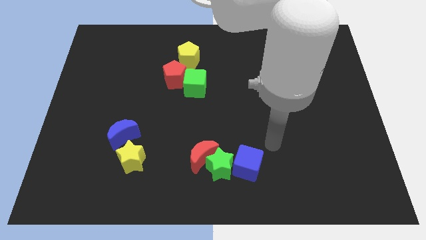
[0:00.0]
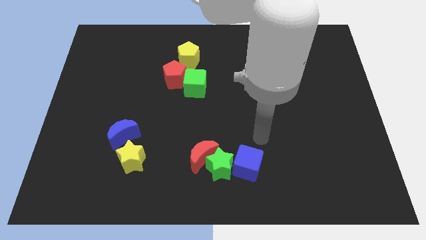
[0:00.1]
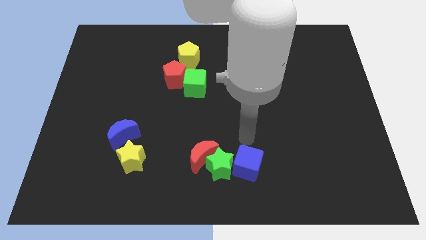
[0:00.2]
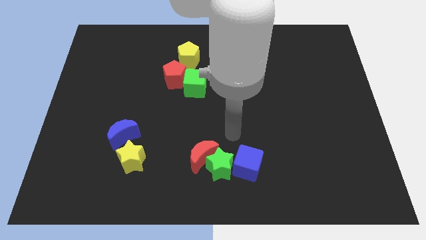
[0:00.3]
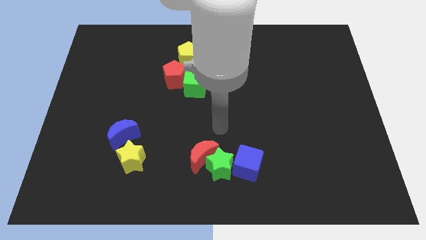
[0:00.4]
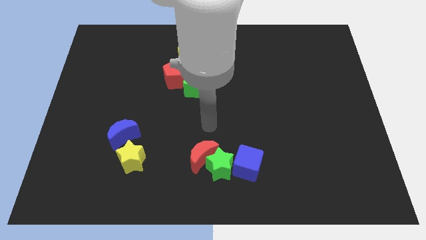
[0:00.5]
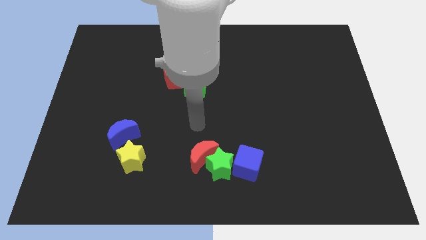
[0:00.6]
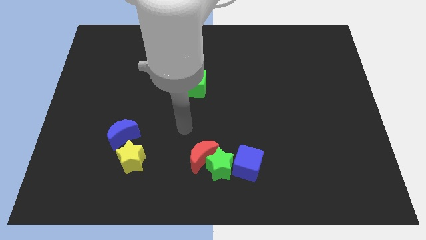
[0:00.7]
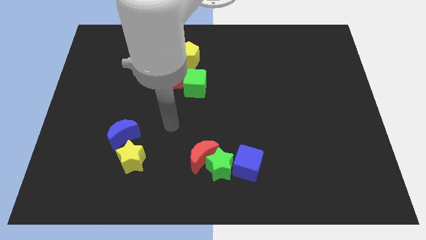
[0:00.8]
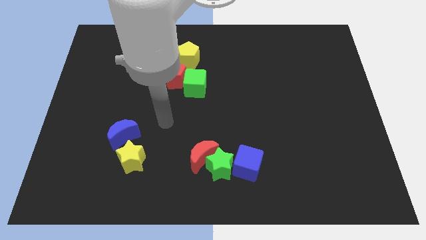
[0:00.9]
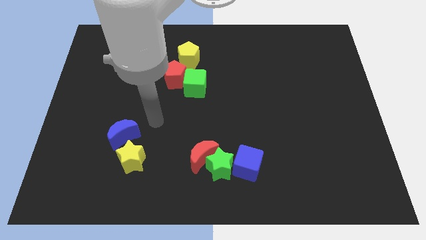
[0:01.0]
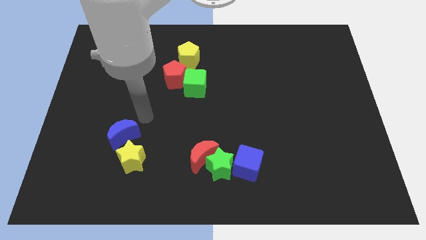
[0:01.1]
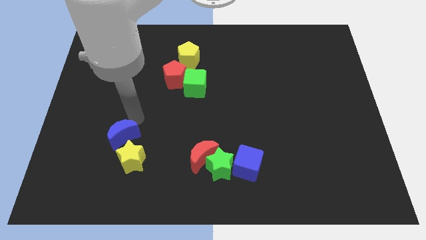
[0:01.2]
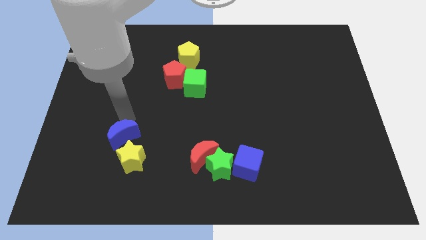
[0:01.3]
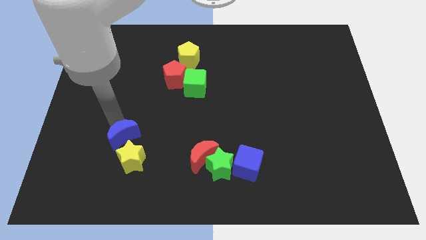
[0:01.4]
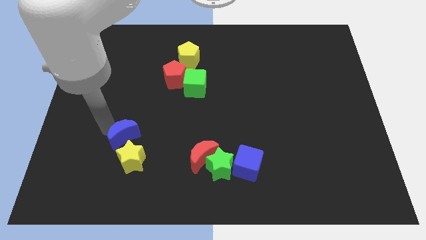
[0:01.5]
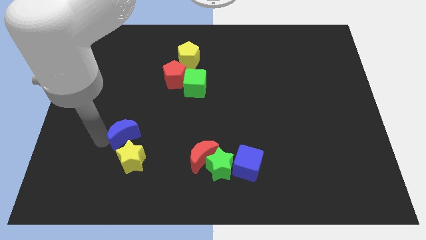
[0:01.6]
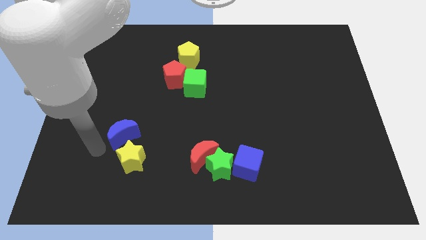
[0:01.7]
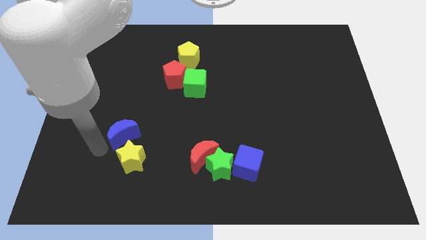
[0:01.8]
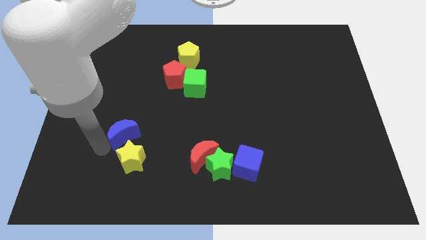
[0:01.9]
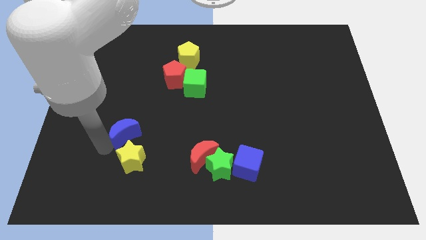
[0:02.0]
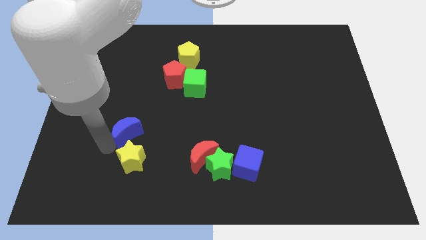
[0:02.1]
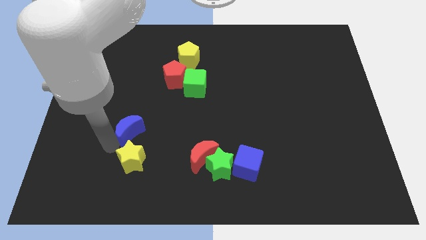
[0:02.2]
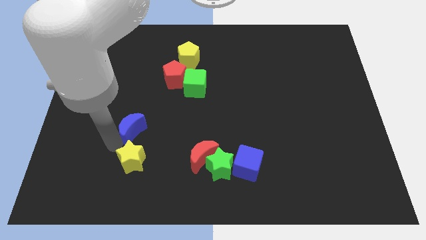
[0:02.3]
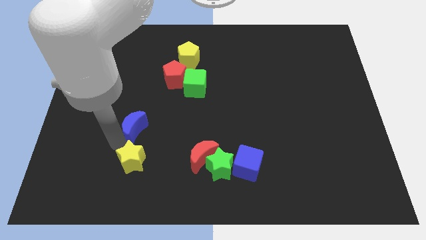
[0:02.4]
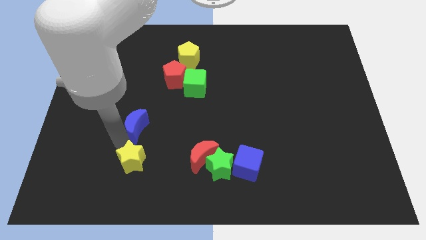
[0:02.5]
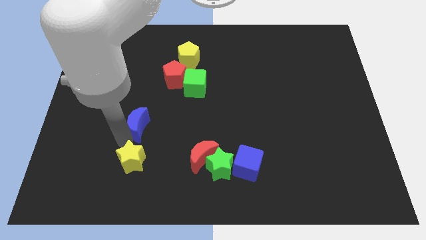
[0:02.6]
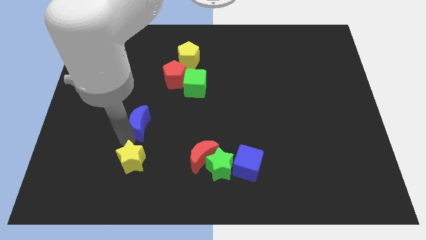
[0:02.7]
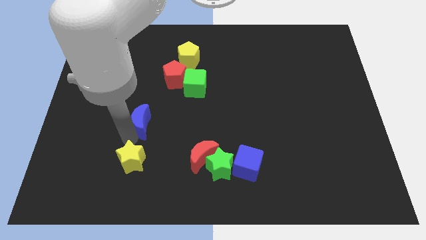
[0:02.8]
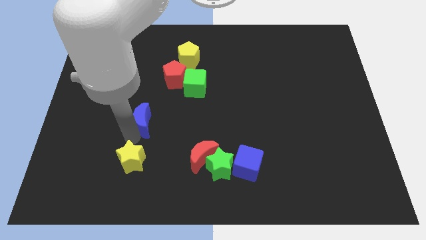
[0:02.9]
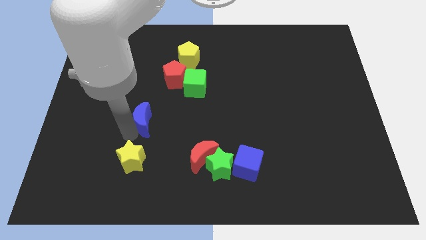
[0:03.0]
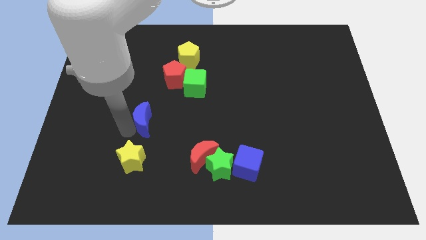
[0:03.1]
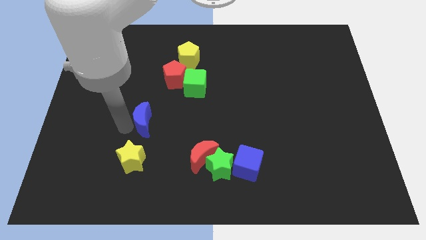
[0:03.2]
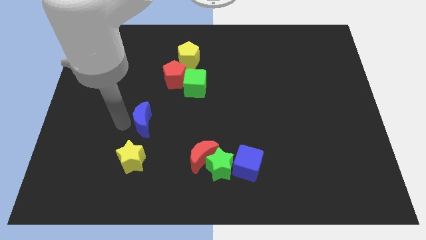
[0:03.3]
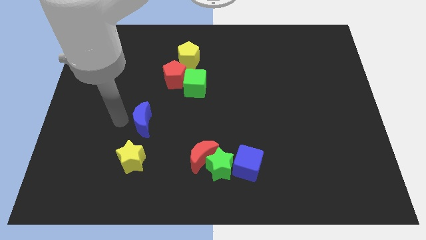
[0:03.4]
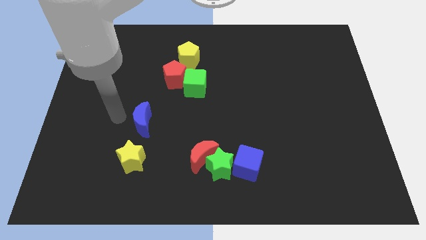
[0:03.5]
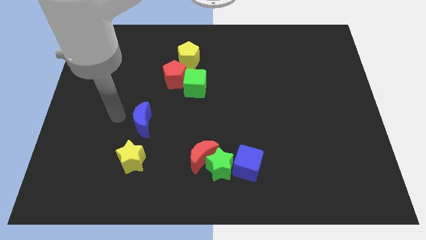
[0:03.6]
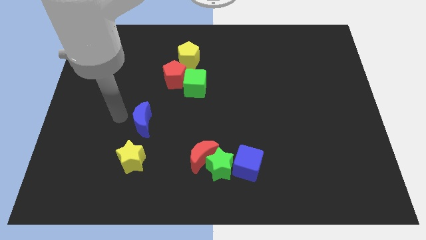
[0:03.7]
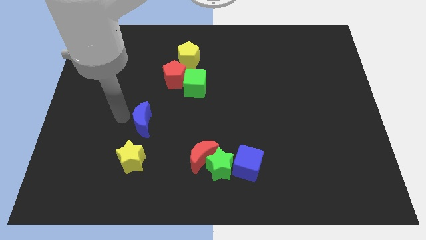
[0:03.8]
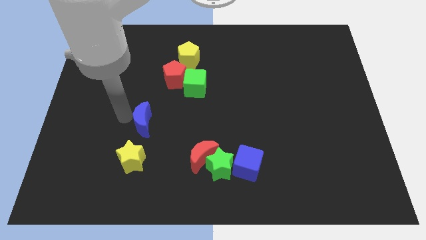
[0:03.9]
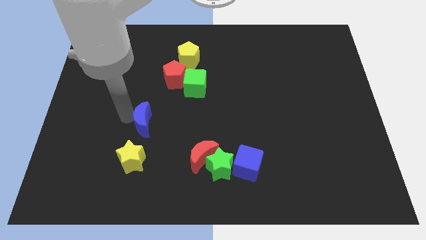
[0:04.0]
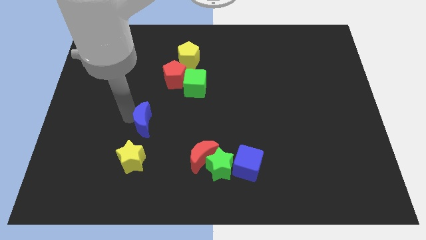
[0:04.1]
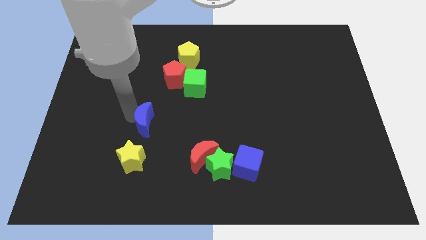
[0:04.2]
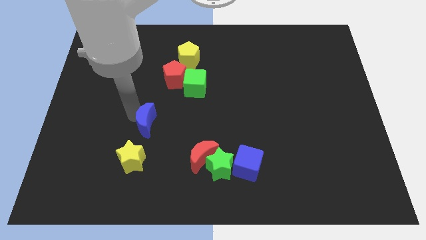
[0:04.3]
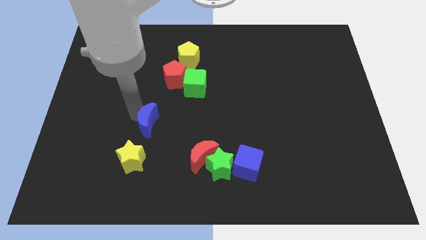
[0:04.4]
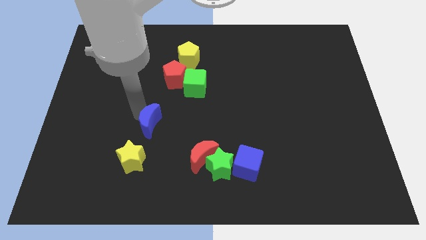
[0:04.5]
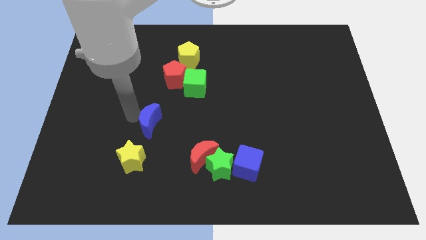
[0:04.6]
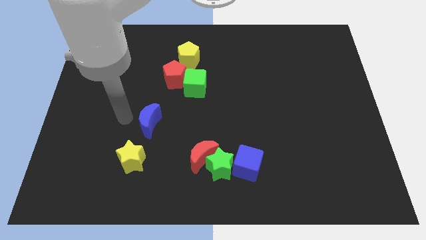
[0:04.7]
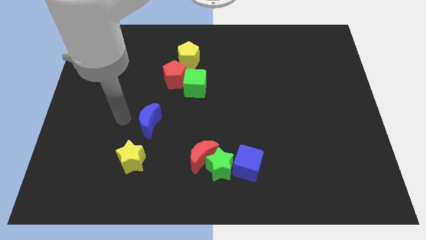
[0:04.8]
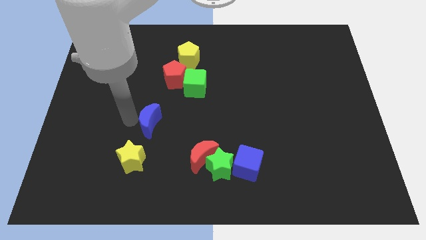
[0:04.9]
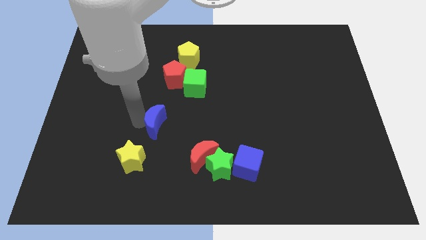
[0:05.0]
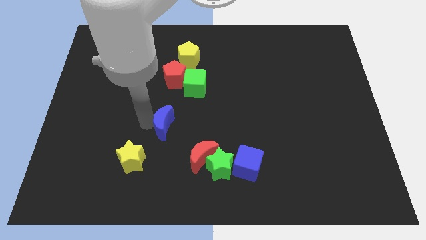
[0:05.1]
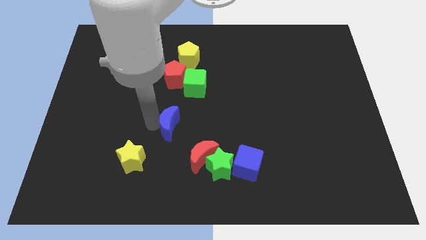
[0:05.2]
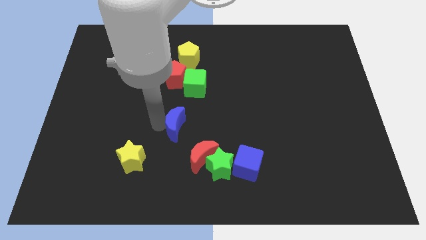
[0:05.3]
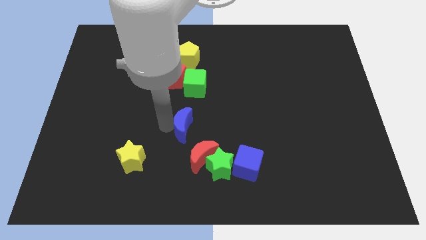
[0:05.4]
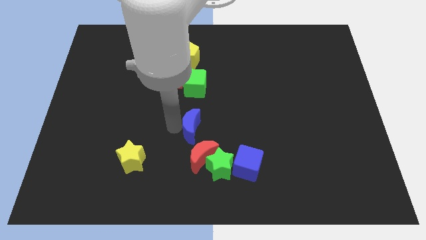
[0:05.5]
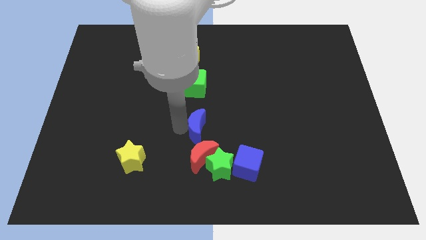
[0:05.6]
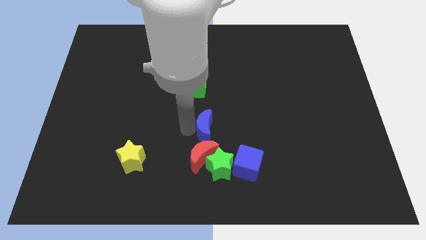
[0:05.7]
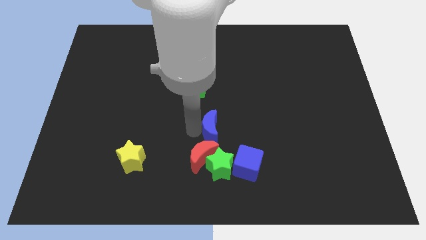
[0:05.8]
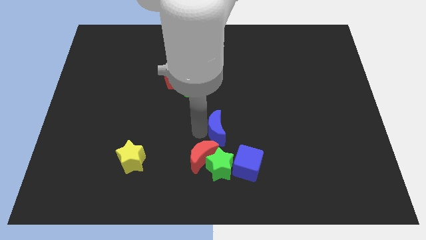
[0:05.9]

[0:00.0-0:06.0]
move the blue moon to the right

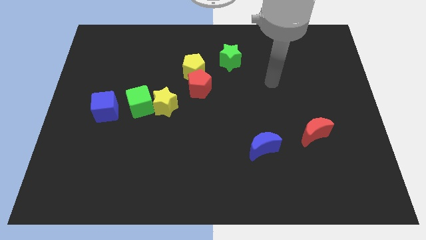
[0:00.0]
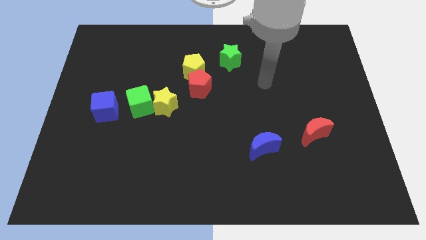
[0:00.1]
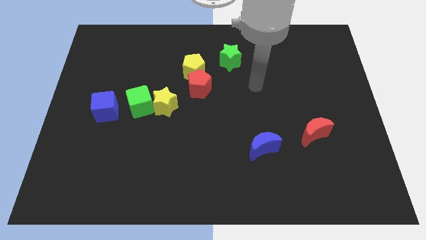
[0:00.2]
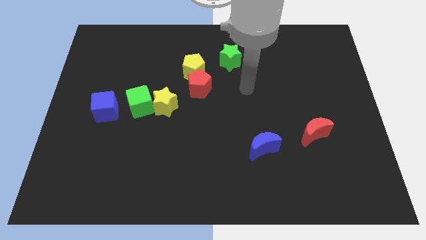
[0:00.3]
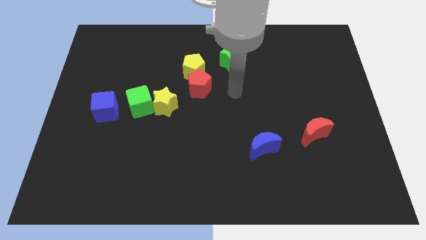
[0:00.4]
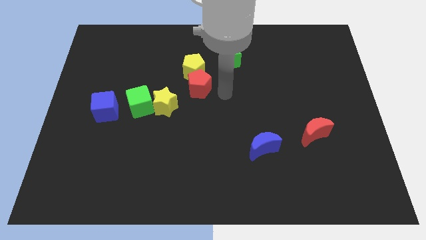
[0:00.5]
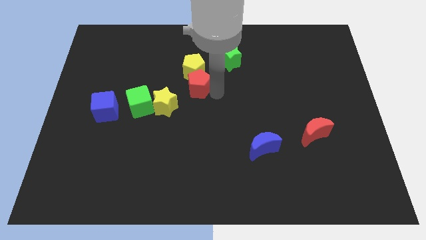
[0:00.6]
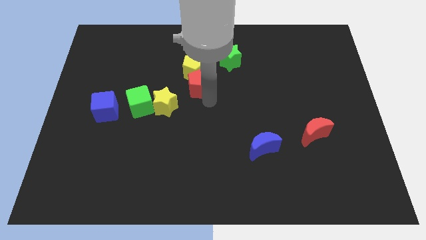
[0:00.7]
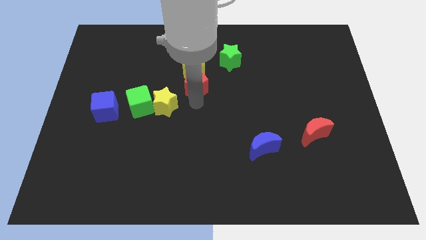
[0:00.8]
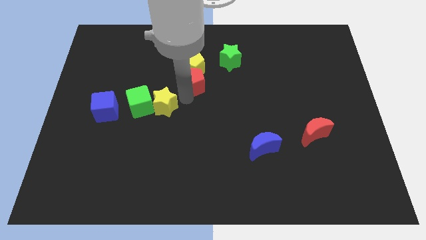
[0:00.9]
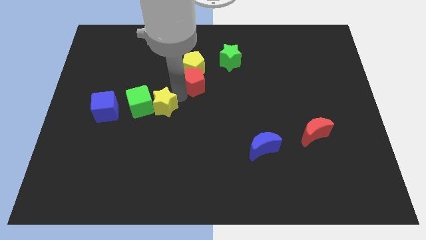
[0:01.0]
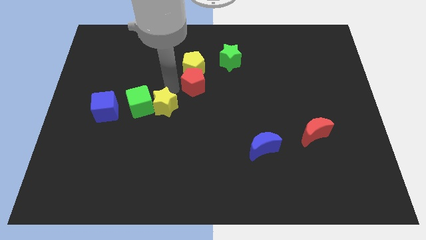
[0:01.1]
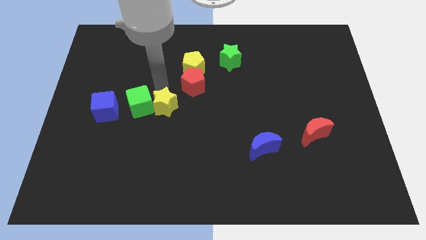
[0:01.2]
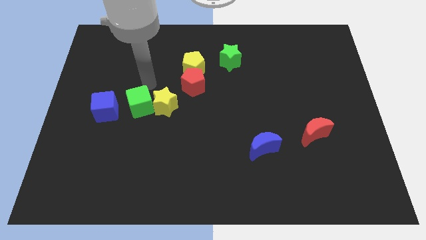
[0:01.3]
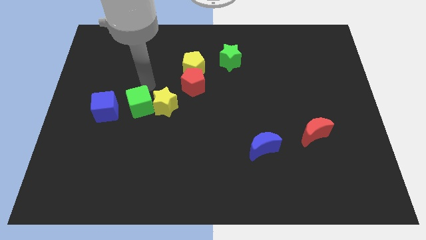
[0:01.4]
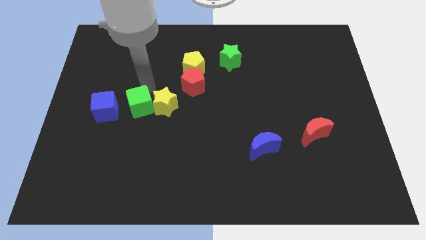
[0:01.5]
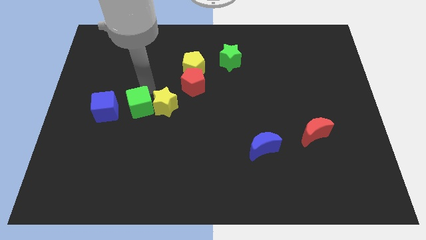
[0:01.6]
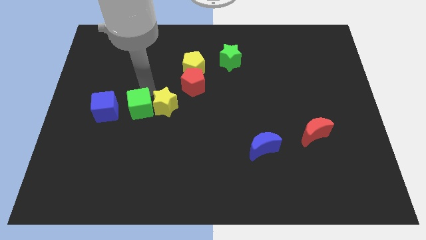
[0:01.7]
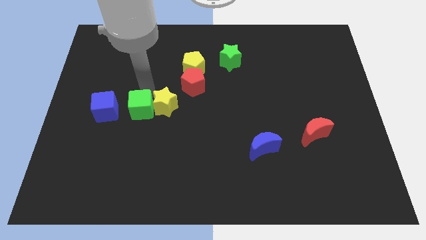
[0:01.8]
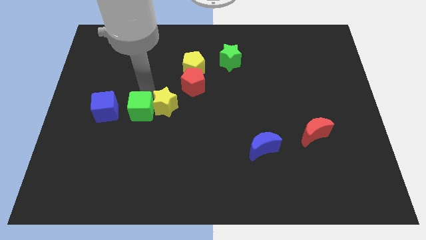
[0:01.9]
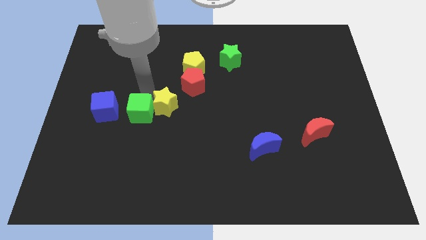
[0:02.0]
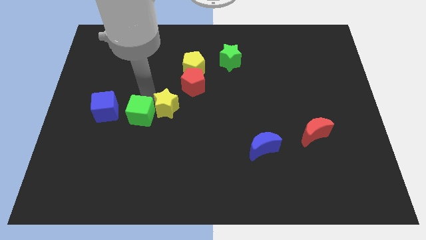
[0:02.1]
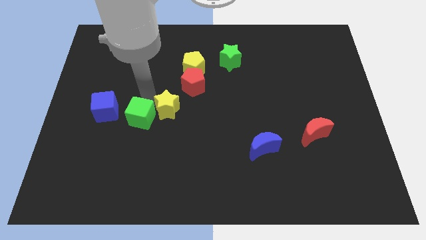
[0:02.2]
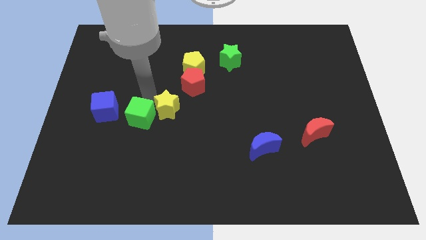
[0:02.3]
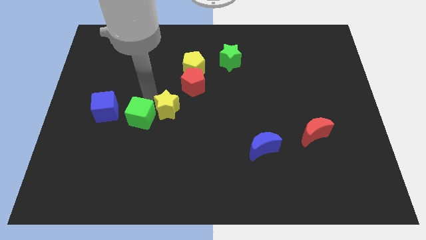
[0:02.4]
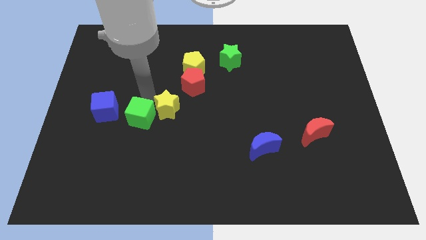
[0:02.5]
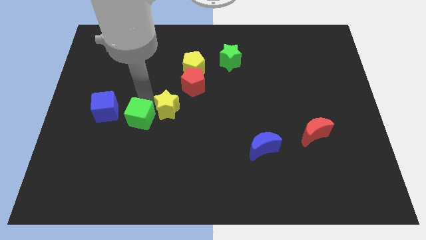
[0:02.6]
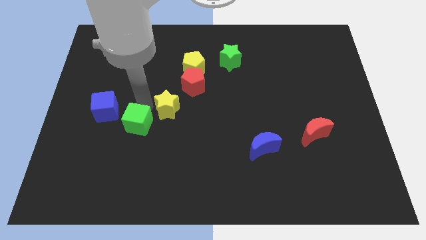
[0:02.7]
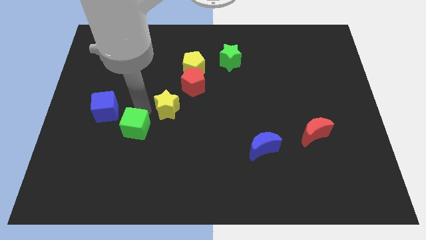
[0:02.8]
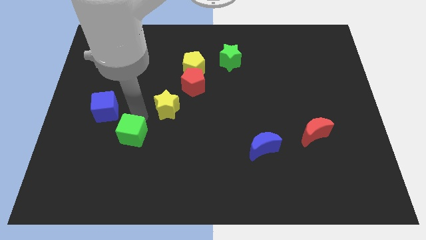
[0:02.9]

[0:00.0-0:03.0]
slide the green cube down somewhat
